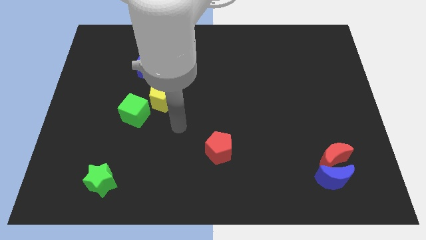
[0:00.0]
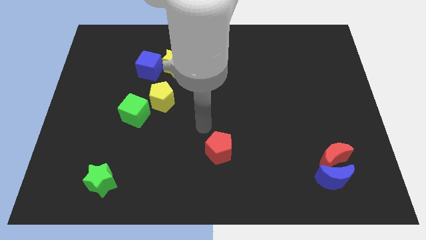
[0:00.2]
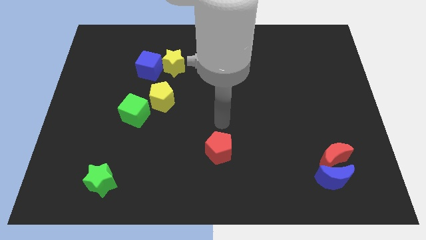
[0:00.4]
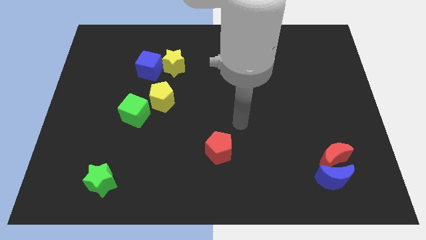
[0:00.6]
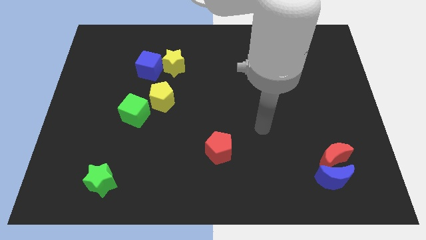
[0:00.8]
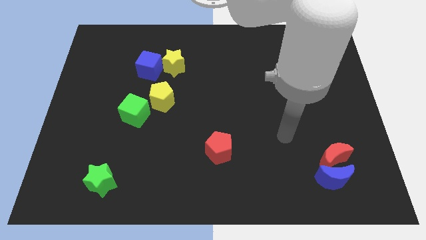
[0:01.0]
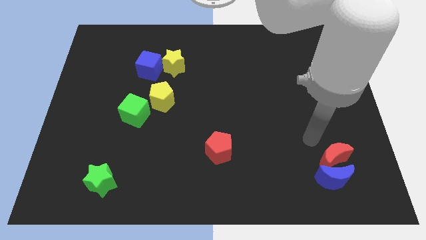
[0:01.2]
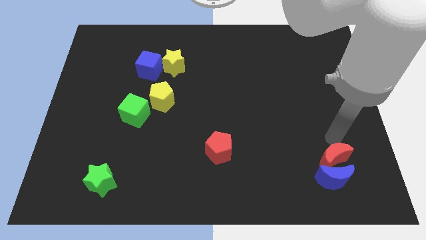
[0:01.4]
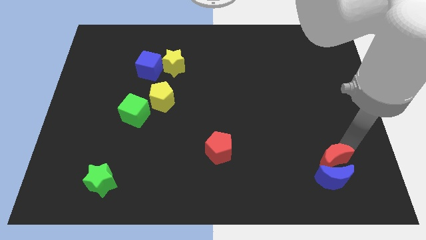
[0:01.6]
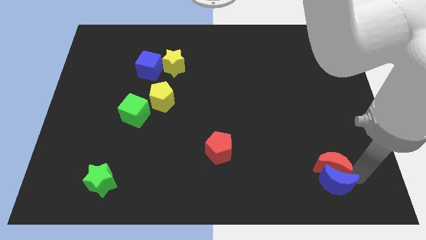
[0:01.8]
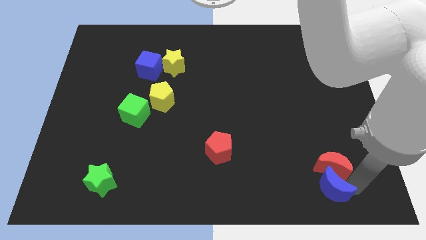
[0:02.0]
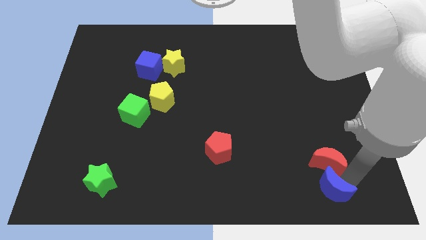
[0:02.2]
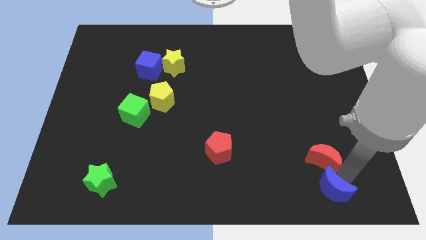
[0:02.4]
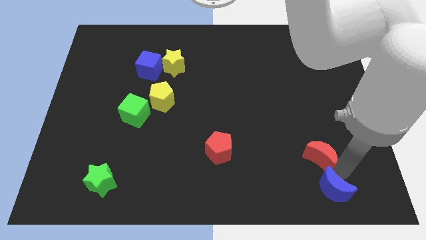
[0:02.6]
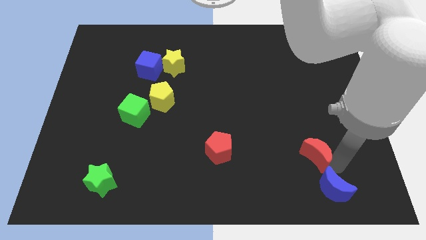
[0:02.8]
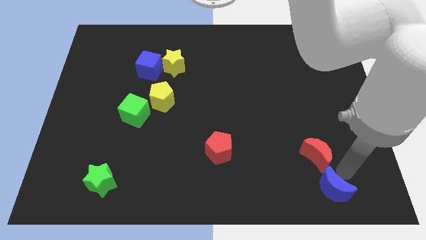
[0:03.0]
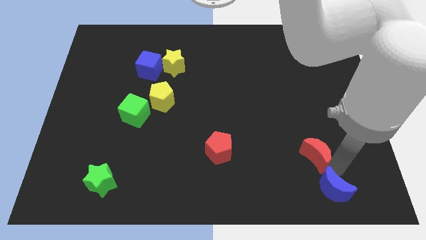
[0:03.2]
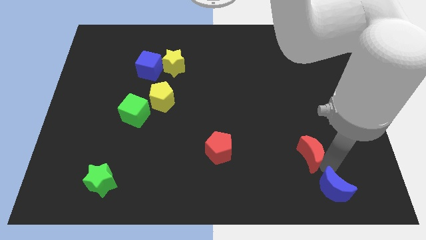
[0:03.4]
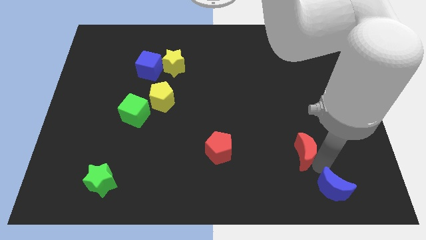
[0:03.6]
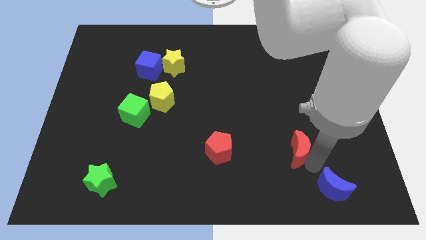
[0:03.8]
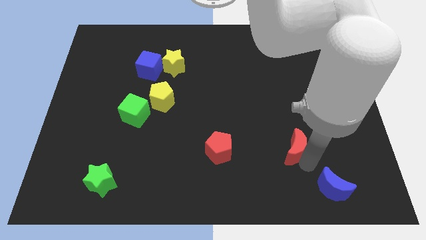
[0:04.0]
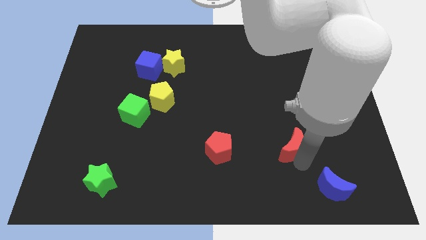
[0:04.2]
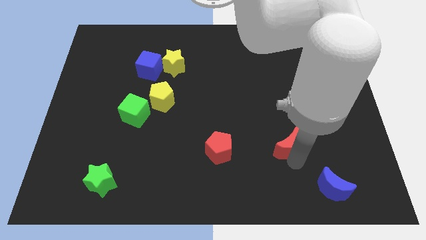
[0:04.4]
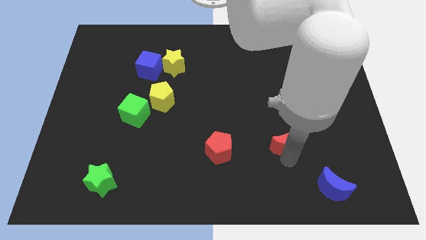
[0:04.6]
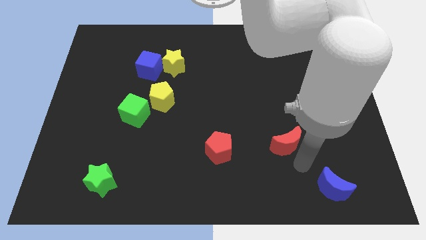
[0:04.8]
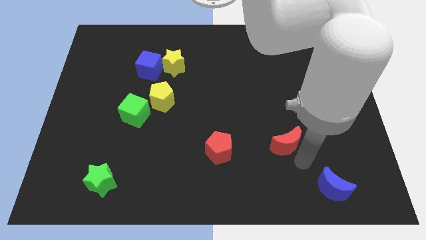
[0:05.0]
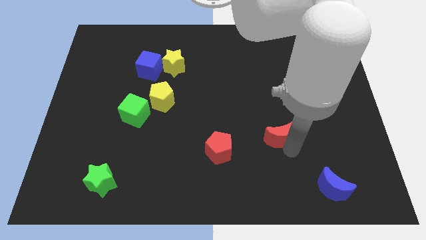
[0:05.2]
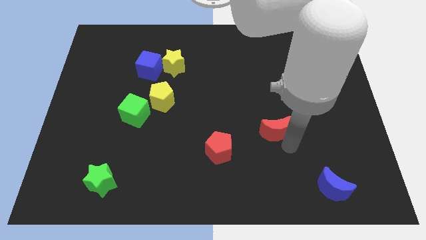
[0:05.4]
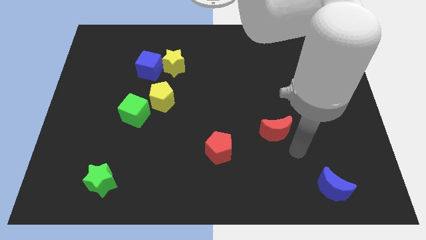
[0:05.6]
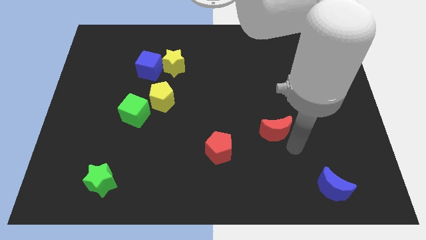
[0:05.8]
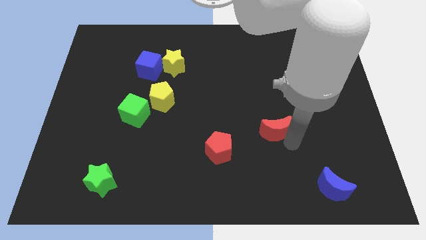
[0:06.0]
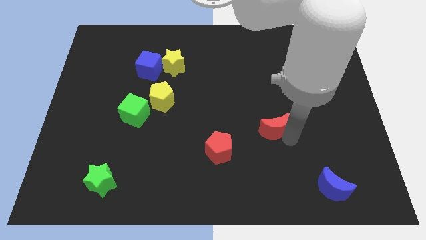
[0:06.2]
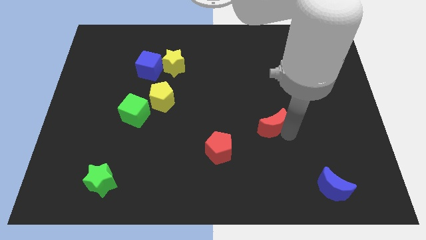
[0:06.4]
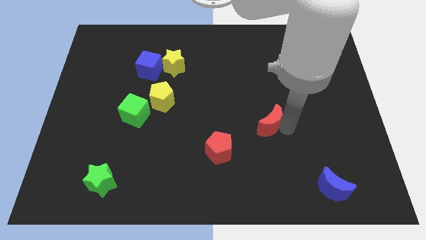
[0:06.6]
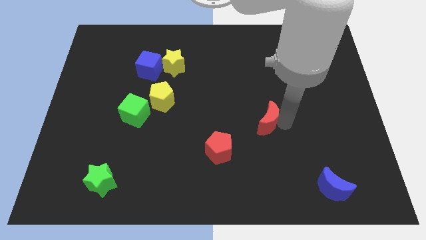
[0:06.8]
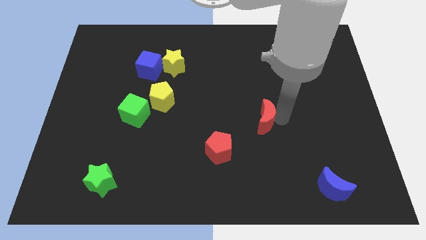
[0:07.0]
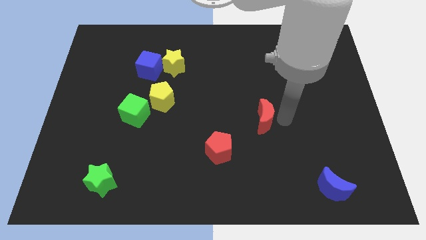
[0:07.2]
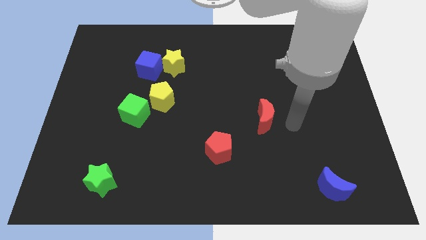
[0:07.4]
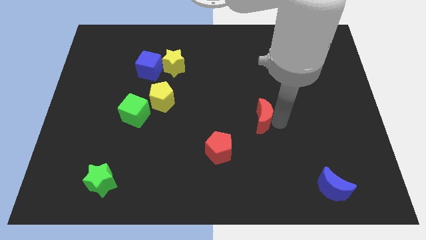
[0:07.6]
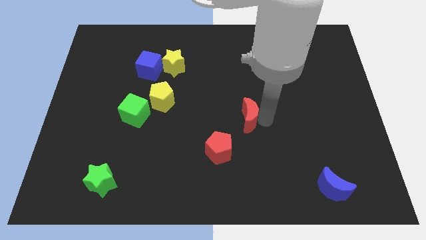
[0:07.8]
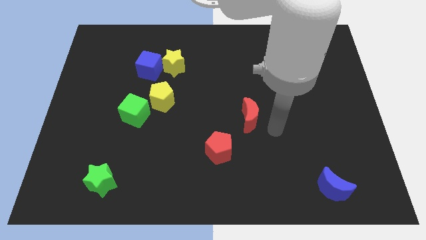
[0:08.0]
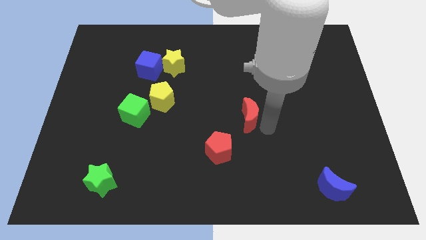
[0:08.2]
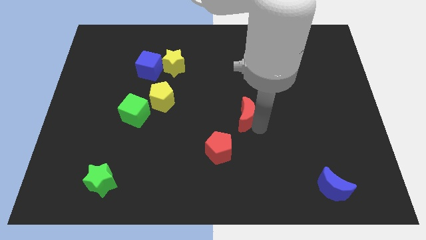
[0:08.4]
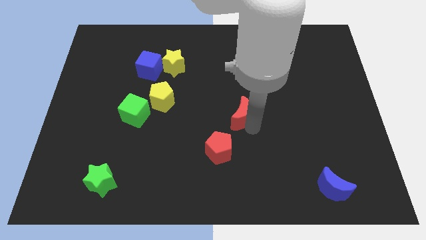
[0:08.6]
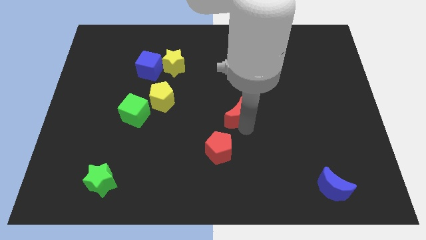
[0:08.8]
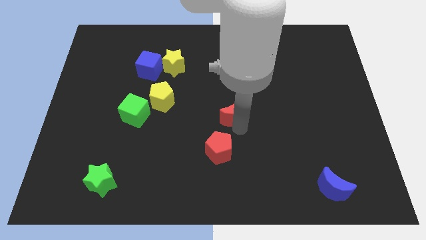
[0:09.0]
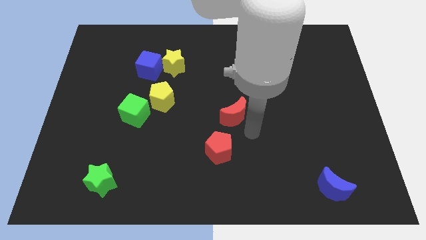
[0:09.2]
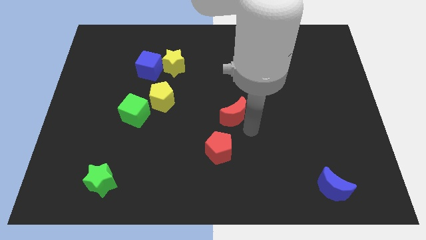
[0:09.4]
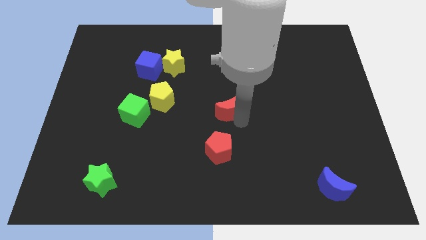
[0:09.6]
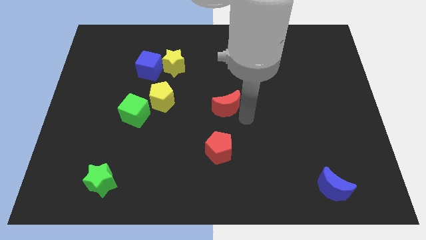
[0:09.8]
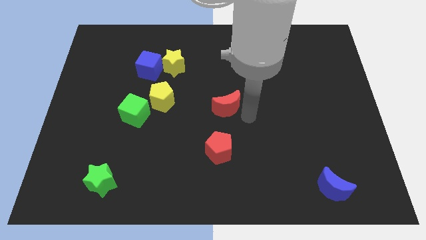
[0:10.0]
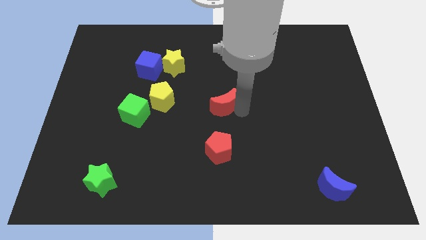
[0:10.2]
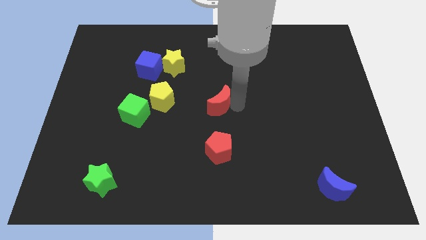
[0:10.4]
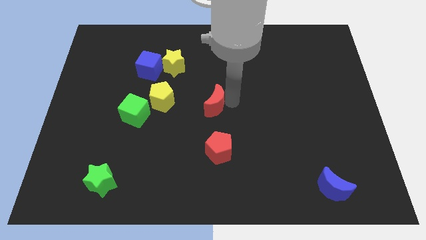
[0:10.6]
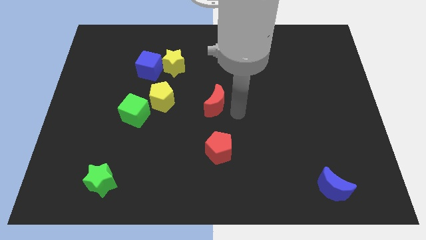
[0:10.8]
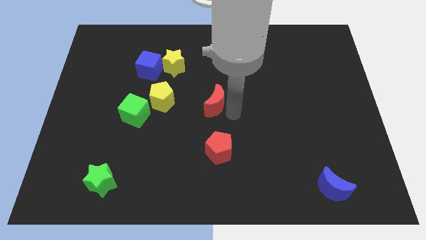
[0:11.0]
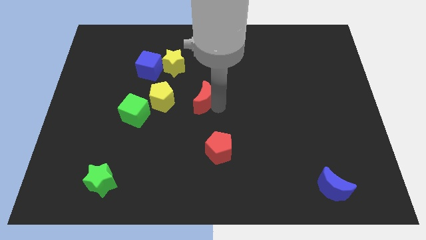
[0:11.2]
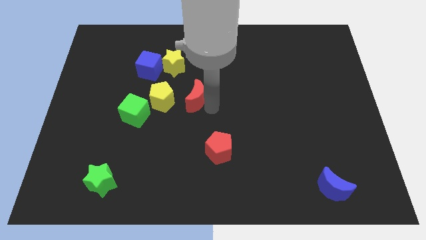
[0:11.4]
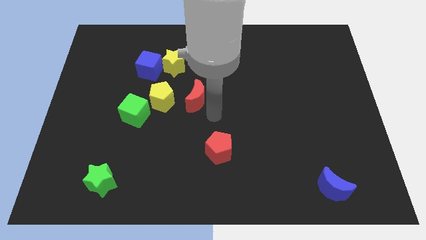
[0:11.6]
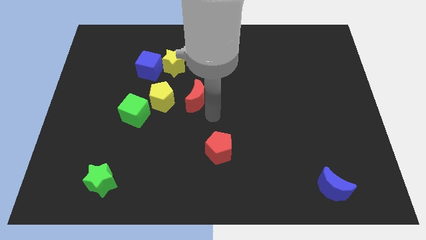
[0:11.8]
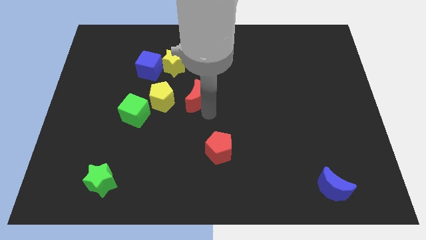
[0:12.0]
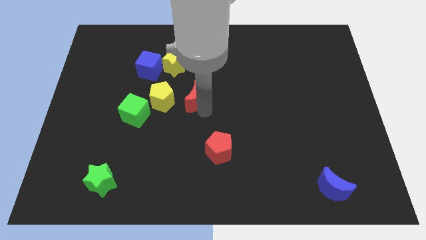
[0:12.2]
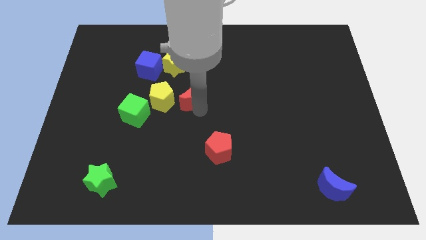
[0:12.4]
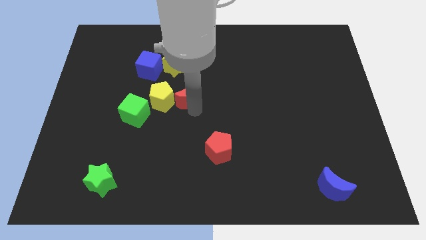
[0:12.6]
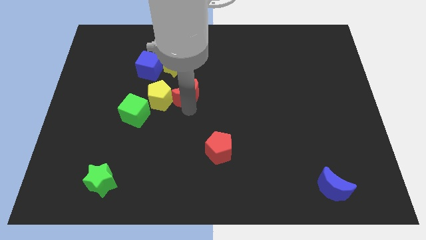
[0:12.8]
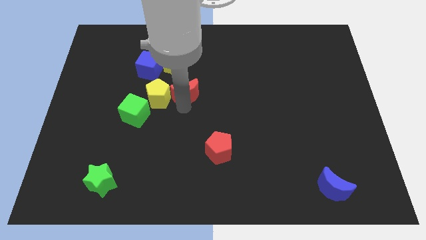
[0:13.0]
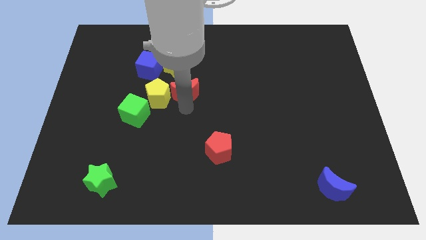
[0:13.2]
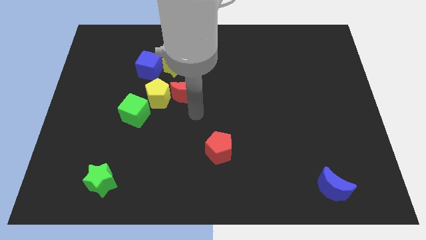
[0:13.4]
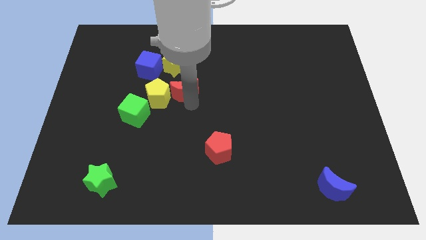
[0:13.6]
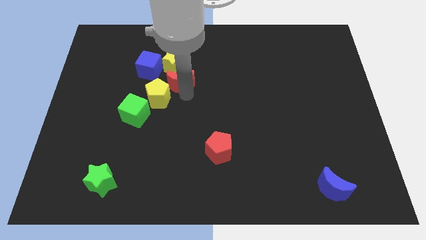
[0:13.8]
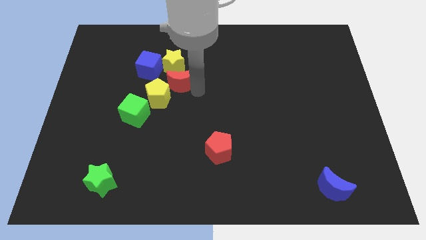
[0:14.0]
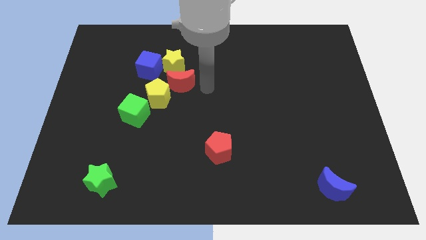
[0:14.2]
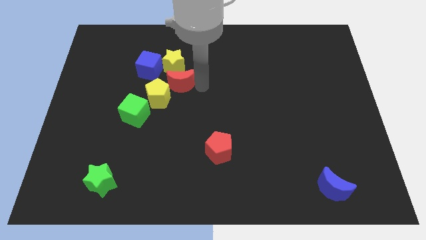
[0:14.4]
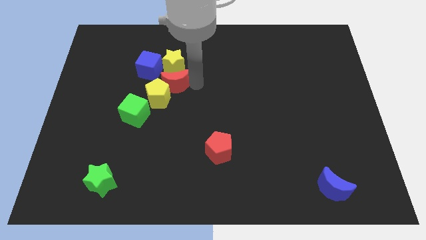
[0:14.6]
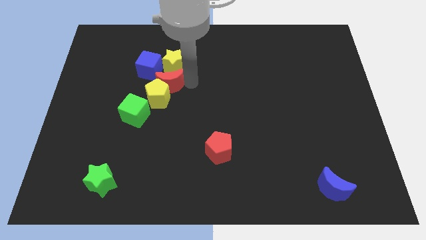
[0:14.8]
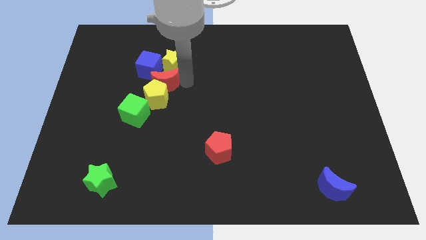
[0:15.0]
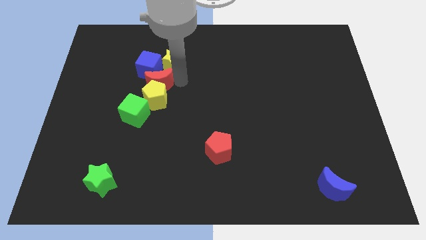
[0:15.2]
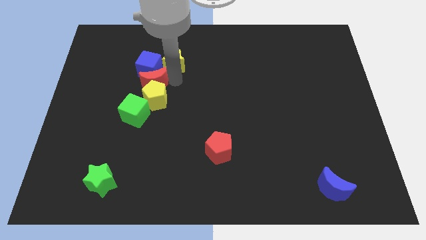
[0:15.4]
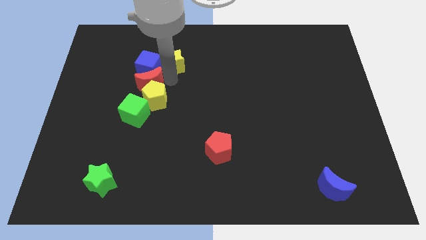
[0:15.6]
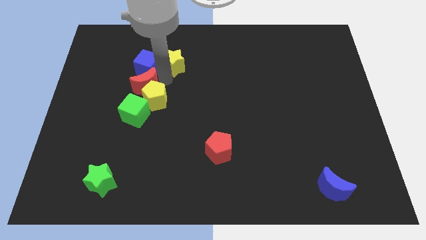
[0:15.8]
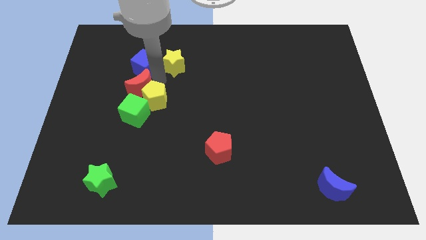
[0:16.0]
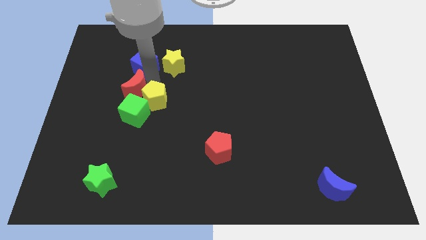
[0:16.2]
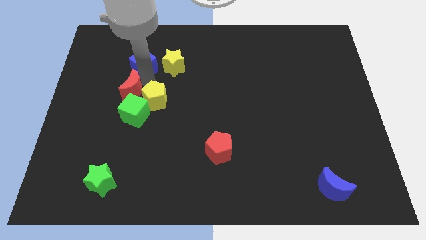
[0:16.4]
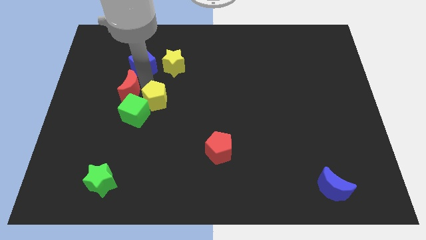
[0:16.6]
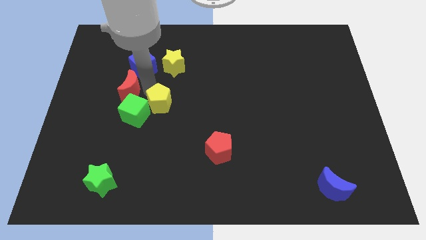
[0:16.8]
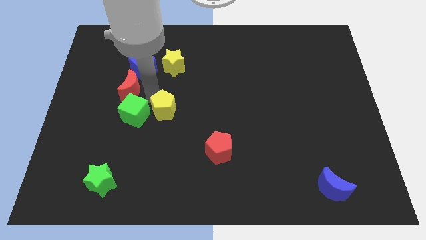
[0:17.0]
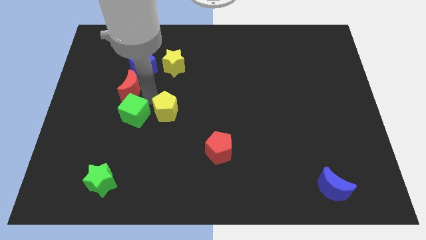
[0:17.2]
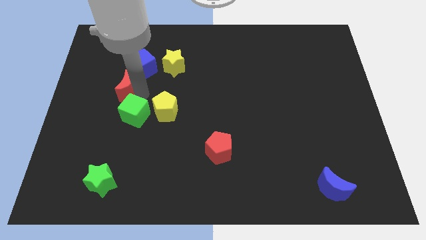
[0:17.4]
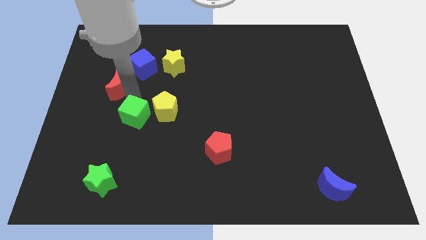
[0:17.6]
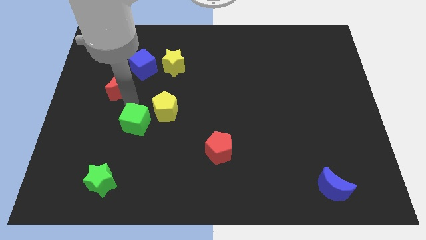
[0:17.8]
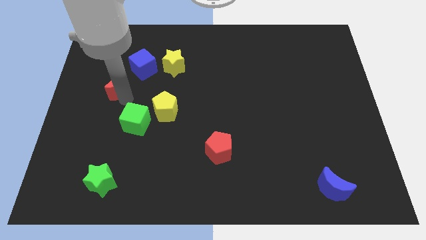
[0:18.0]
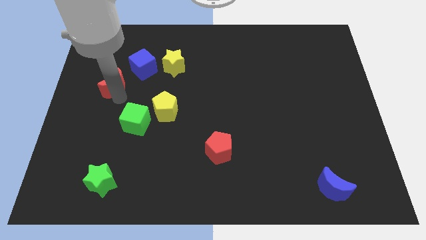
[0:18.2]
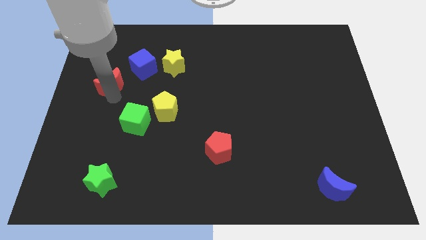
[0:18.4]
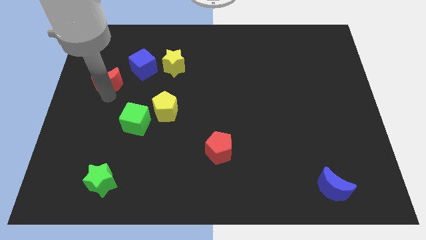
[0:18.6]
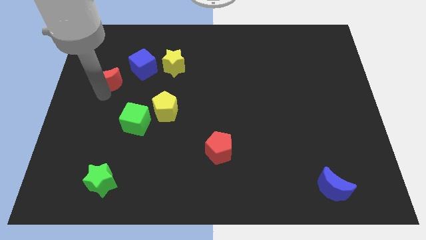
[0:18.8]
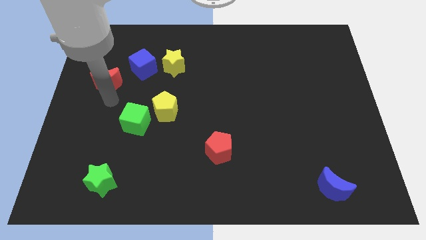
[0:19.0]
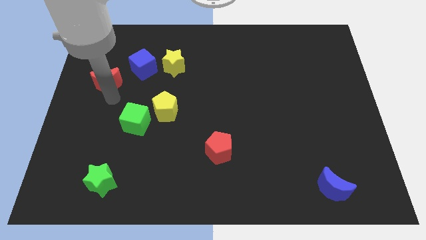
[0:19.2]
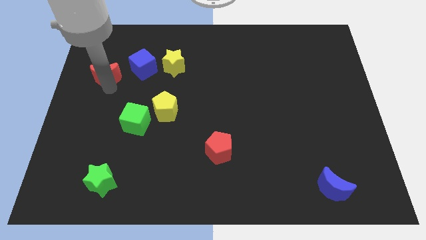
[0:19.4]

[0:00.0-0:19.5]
move the red moon just left of the blue cube
